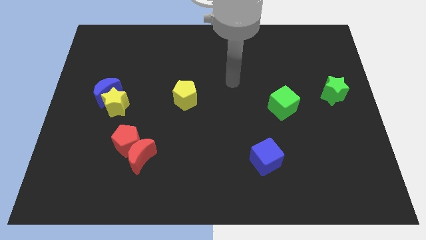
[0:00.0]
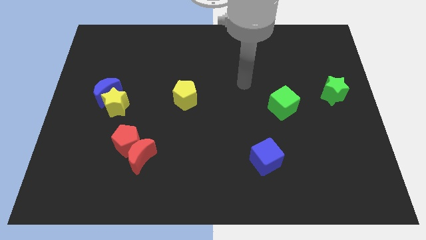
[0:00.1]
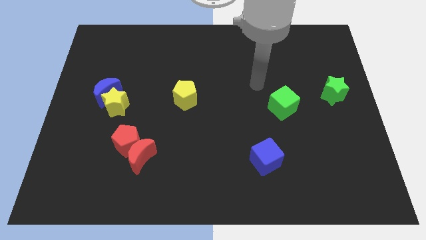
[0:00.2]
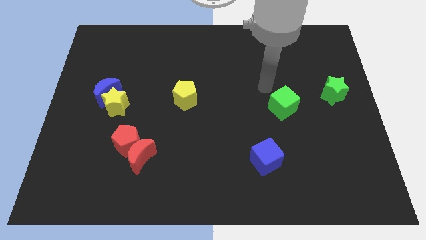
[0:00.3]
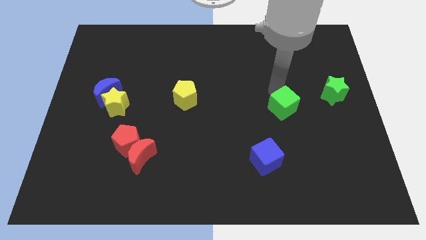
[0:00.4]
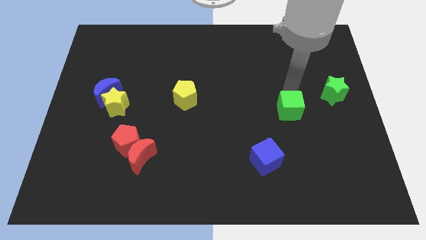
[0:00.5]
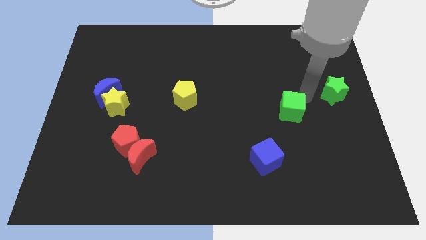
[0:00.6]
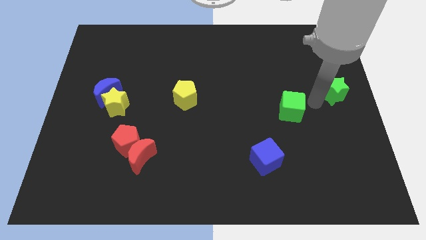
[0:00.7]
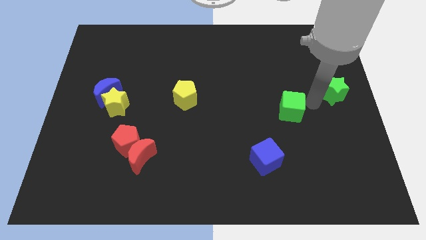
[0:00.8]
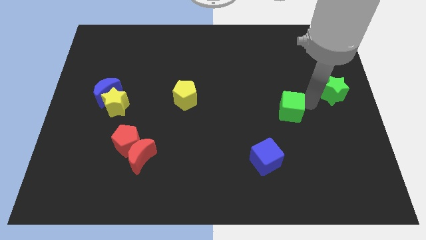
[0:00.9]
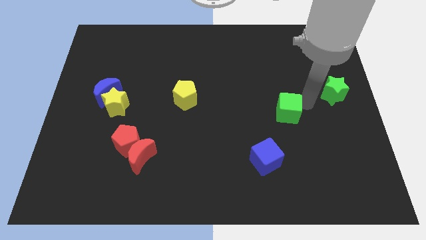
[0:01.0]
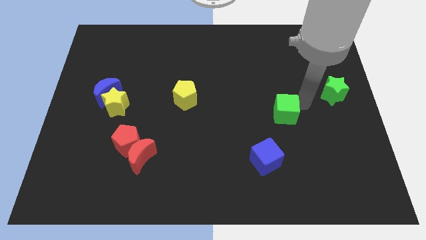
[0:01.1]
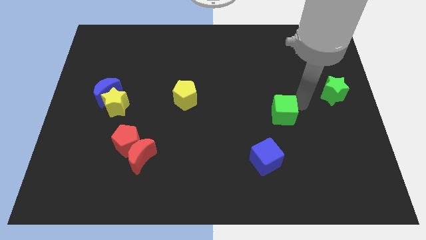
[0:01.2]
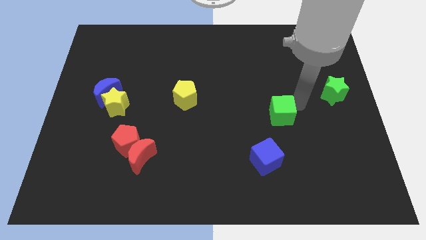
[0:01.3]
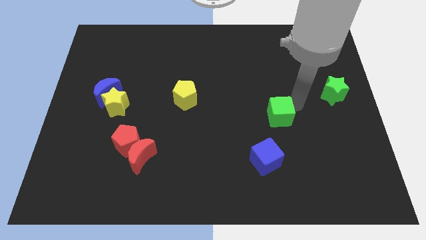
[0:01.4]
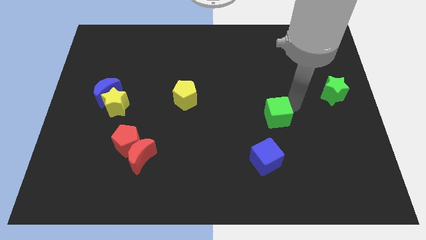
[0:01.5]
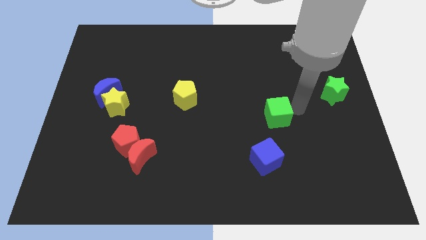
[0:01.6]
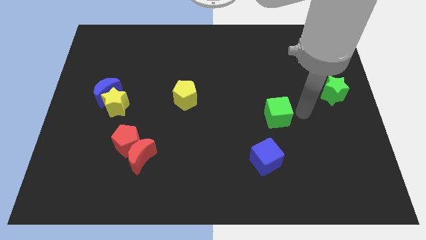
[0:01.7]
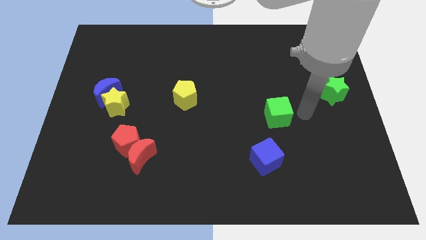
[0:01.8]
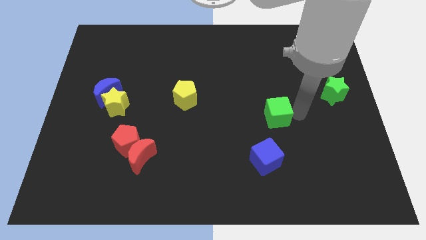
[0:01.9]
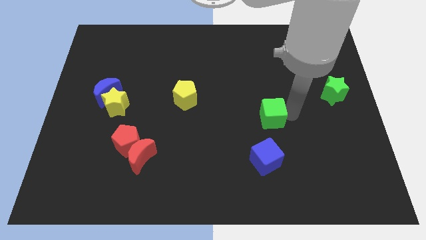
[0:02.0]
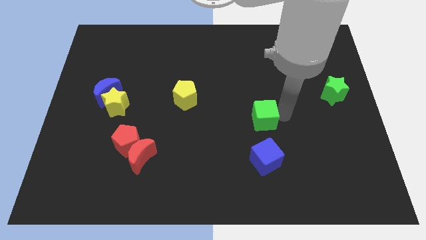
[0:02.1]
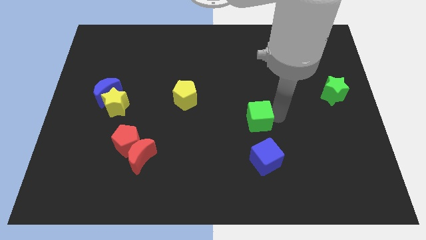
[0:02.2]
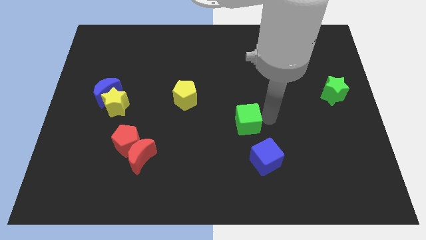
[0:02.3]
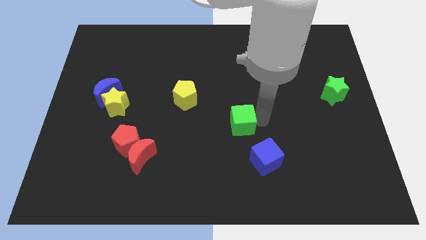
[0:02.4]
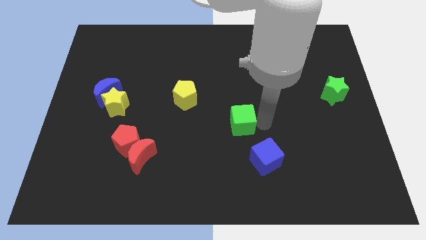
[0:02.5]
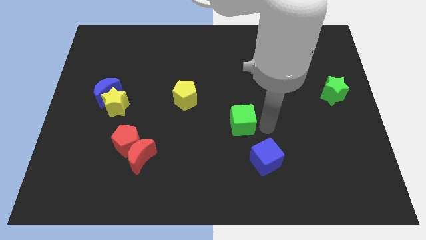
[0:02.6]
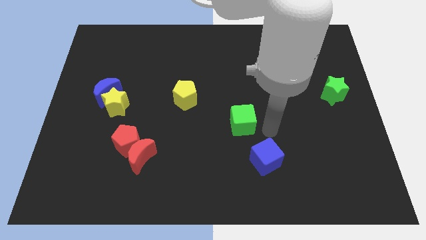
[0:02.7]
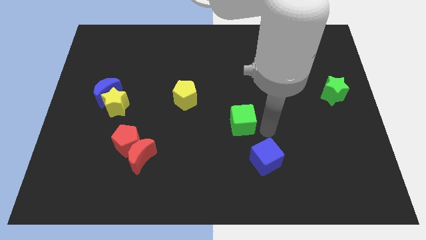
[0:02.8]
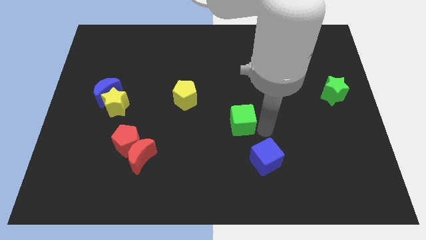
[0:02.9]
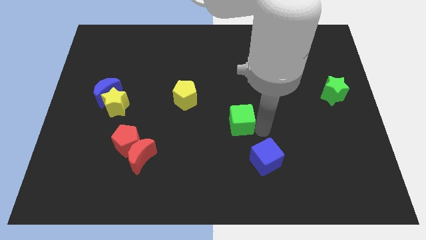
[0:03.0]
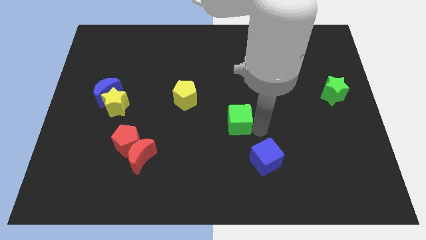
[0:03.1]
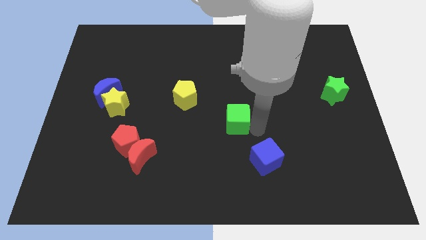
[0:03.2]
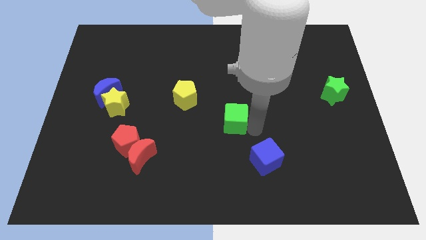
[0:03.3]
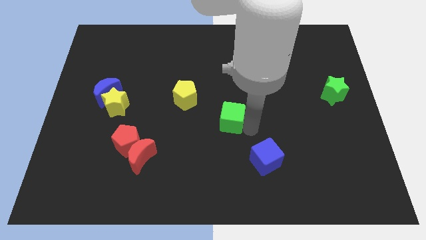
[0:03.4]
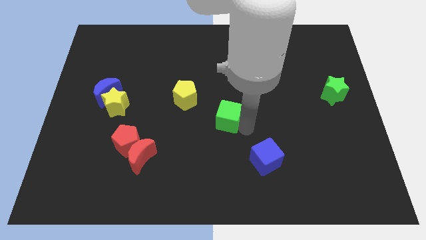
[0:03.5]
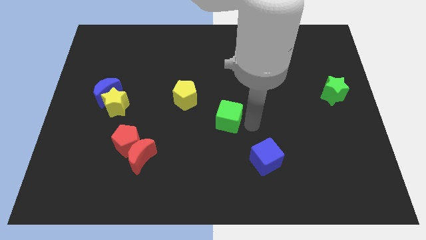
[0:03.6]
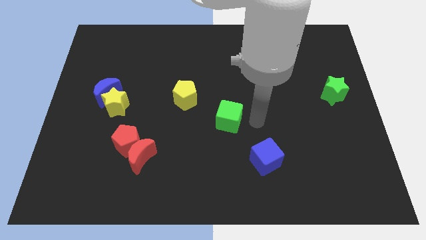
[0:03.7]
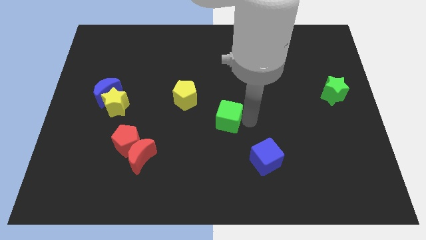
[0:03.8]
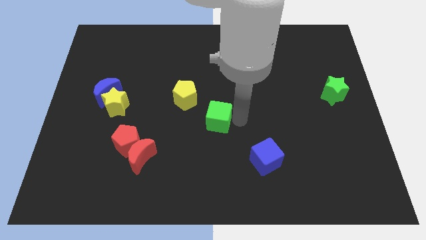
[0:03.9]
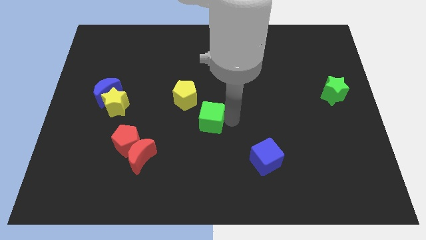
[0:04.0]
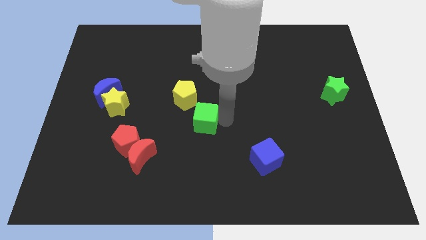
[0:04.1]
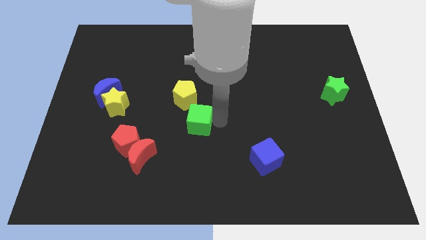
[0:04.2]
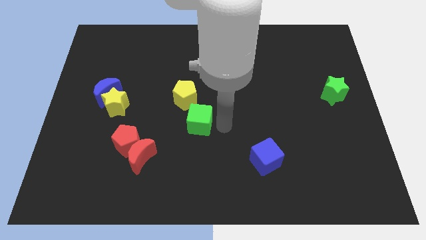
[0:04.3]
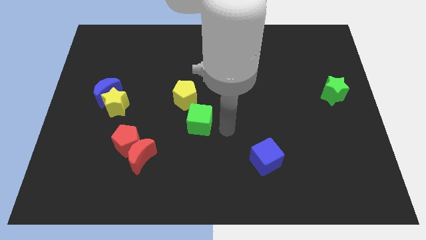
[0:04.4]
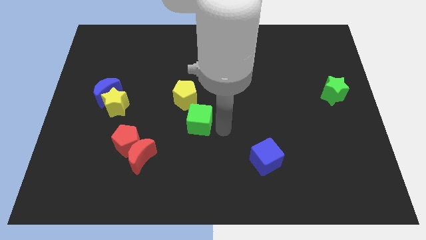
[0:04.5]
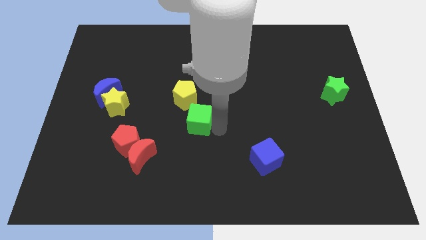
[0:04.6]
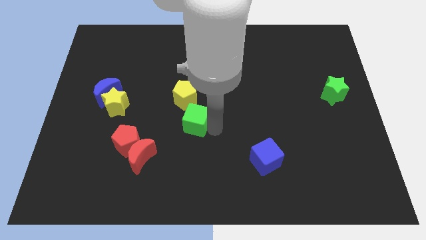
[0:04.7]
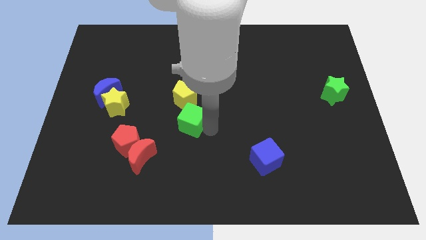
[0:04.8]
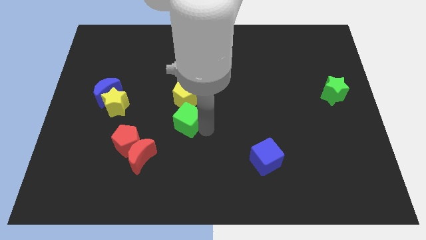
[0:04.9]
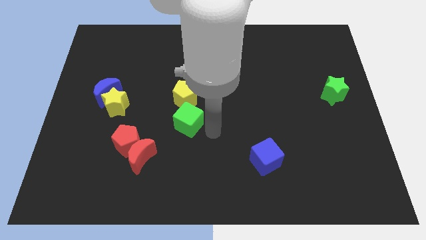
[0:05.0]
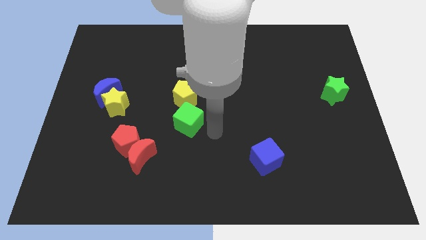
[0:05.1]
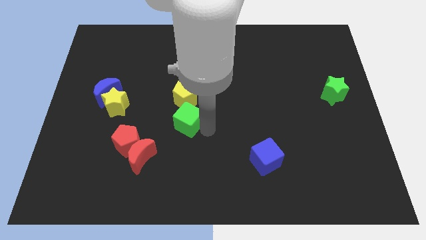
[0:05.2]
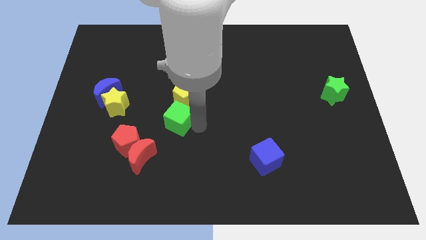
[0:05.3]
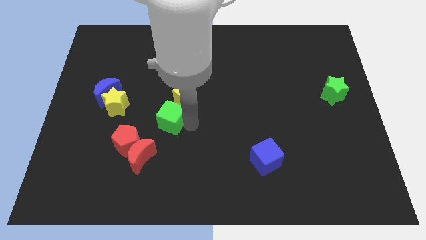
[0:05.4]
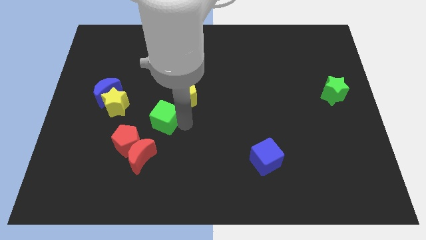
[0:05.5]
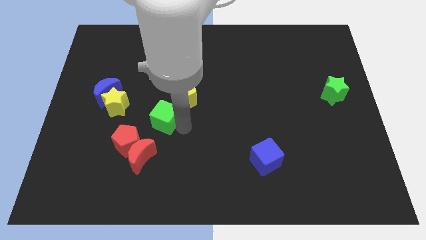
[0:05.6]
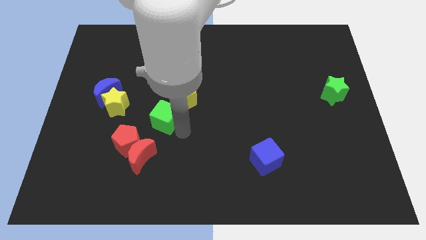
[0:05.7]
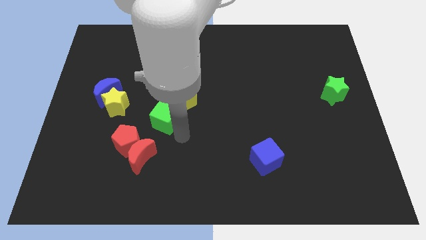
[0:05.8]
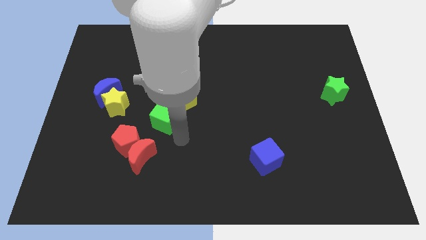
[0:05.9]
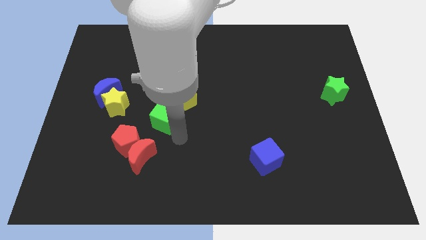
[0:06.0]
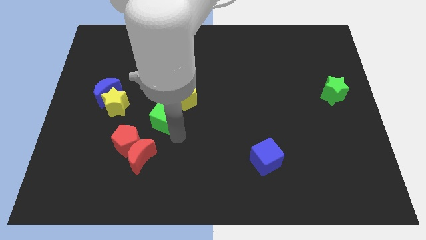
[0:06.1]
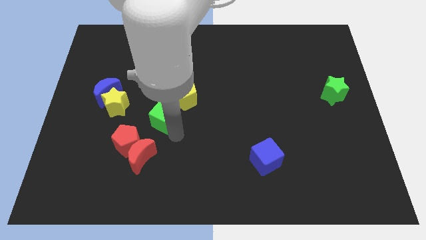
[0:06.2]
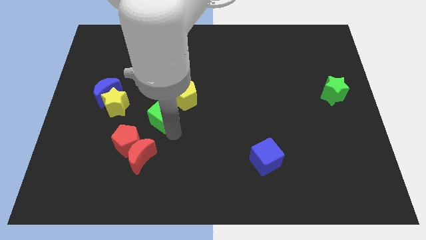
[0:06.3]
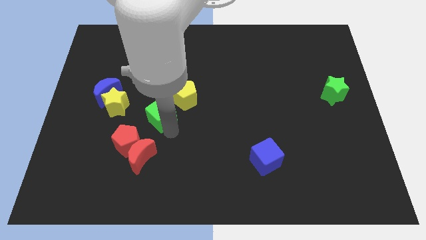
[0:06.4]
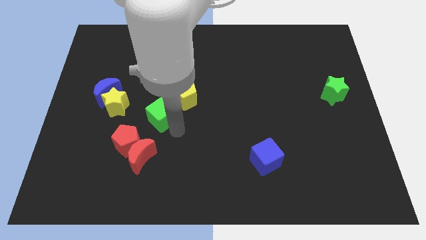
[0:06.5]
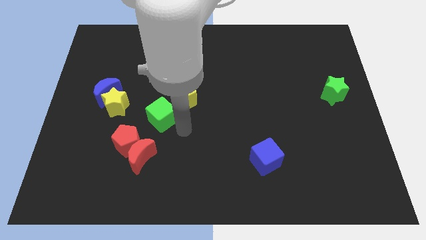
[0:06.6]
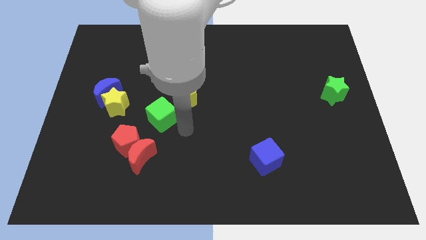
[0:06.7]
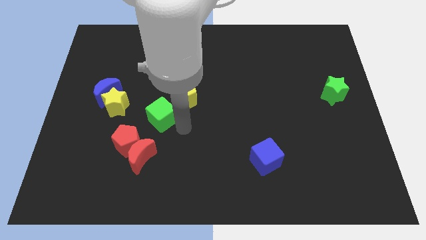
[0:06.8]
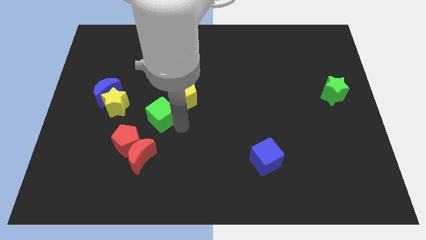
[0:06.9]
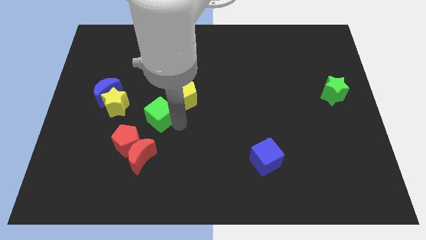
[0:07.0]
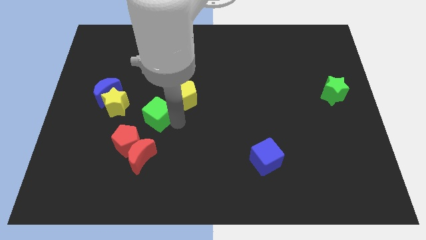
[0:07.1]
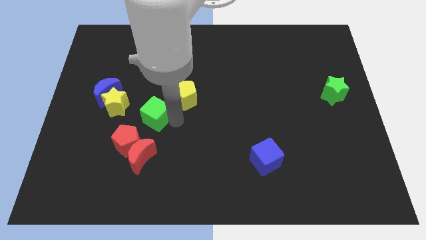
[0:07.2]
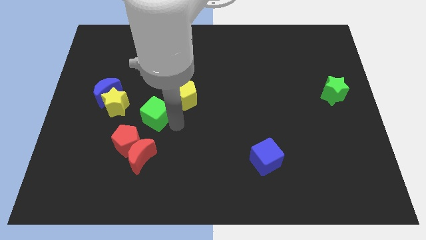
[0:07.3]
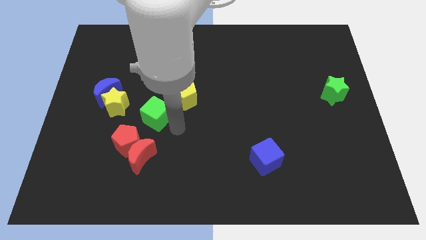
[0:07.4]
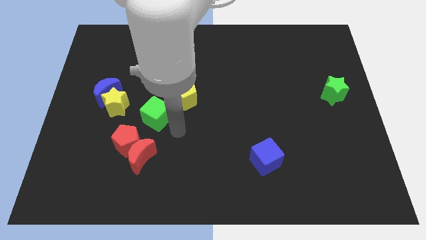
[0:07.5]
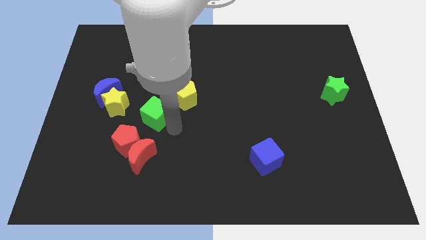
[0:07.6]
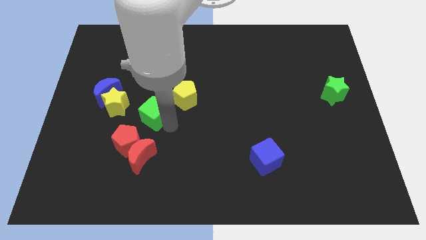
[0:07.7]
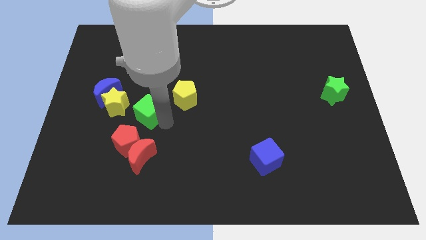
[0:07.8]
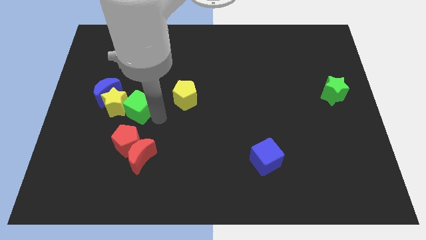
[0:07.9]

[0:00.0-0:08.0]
push the green cube close to the yellow star
